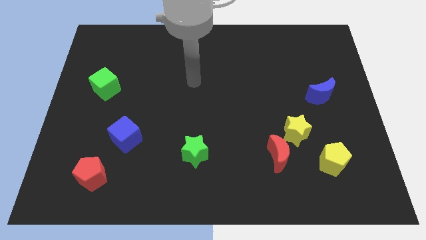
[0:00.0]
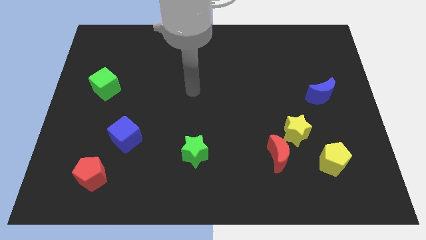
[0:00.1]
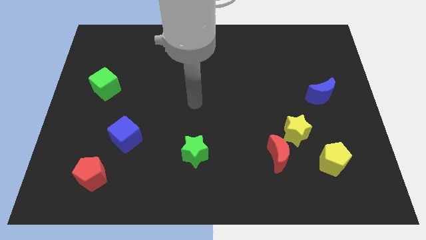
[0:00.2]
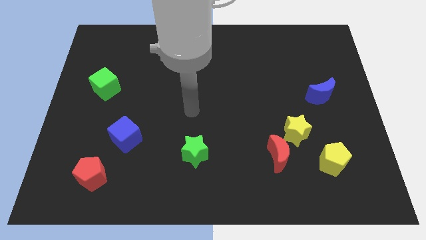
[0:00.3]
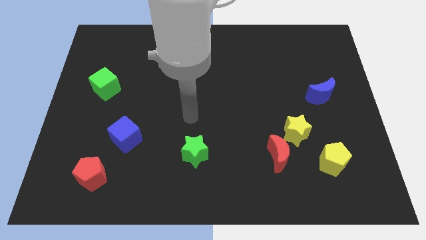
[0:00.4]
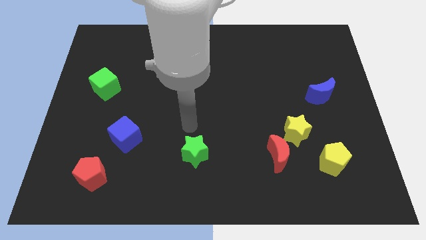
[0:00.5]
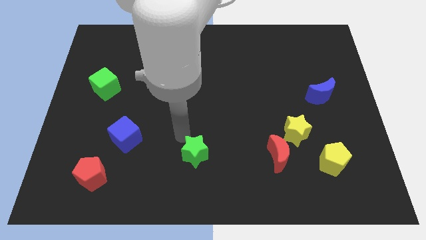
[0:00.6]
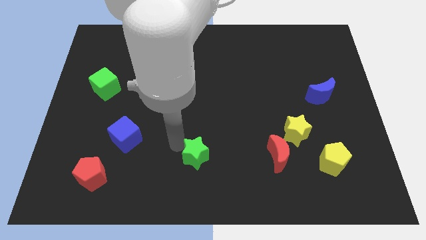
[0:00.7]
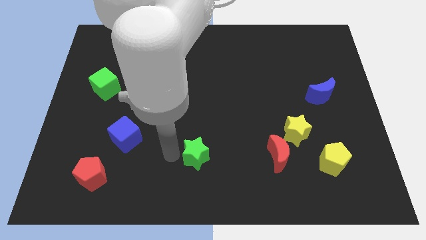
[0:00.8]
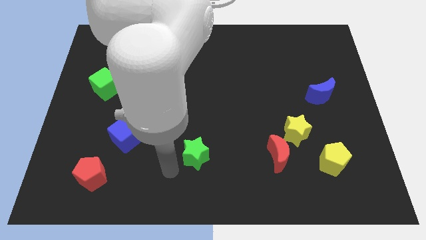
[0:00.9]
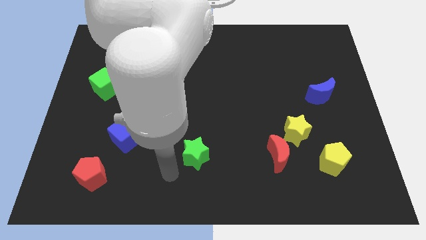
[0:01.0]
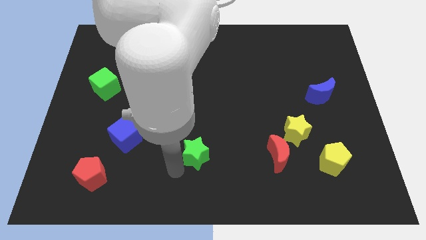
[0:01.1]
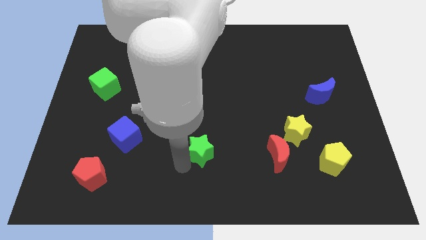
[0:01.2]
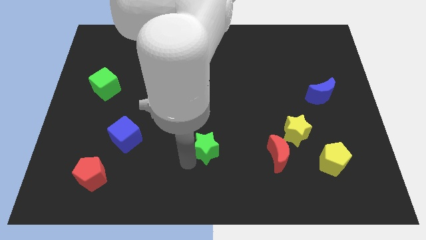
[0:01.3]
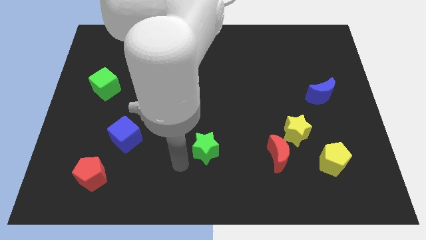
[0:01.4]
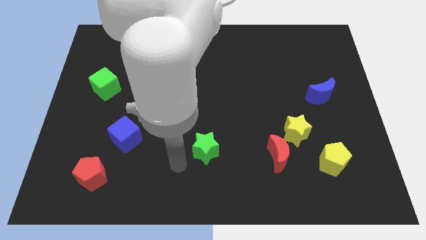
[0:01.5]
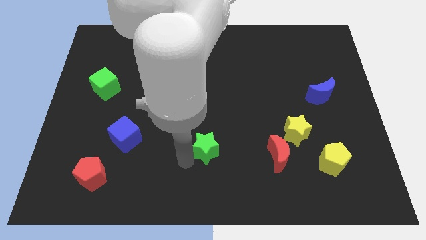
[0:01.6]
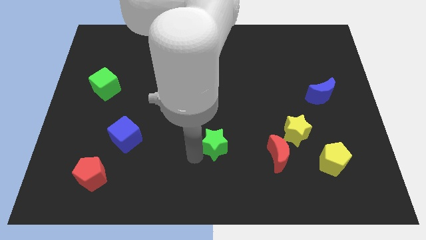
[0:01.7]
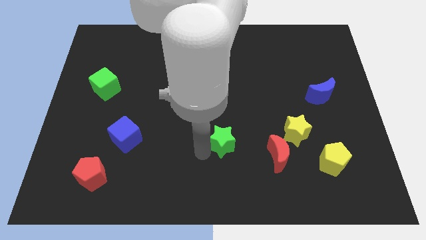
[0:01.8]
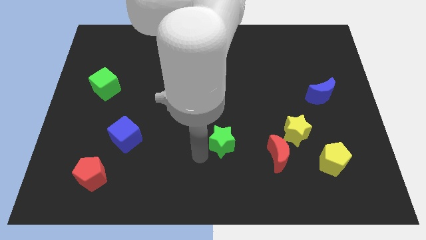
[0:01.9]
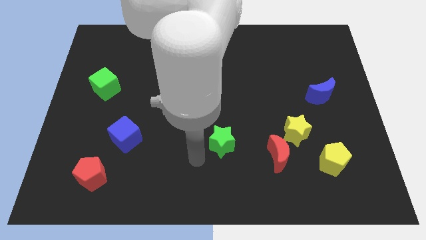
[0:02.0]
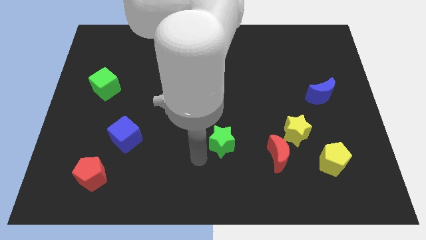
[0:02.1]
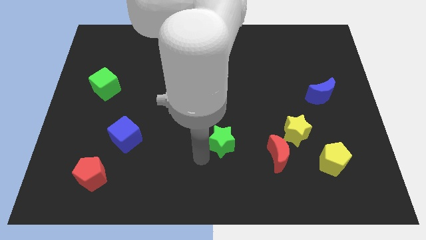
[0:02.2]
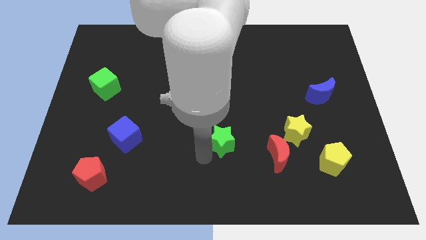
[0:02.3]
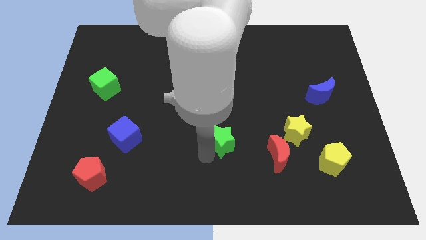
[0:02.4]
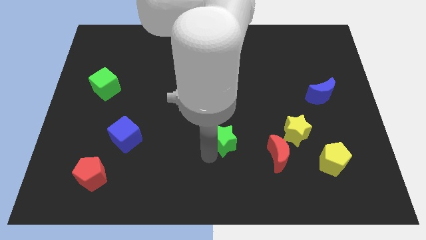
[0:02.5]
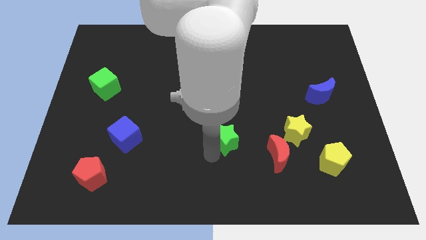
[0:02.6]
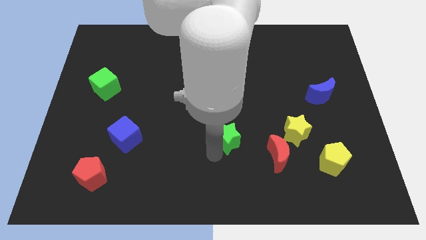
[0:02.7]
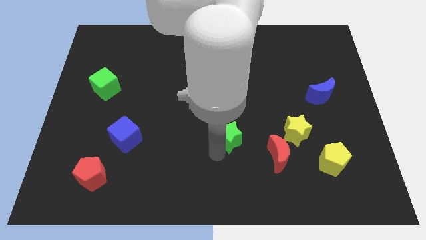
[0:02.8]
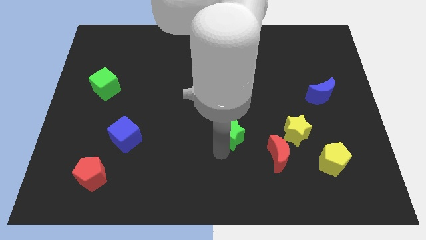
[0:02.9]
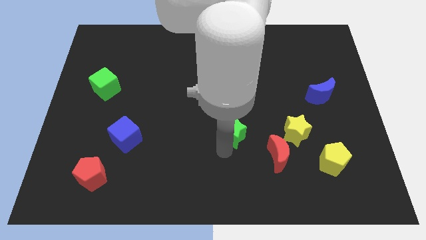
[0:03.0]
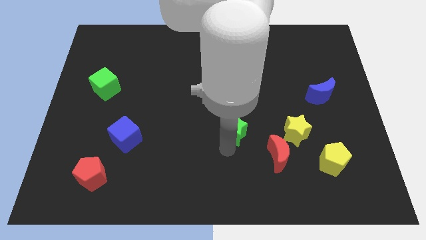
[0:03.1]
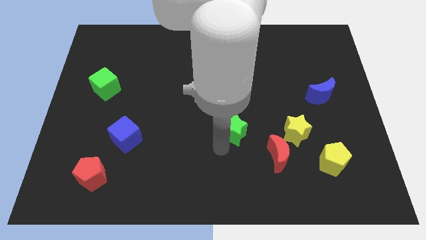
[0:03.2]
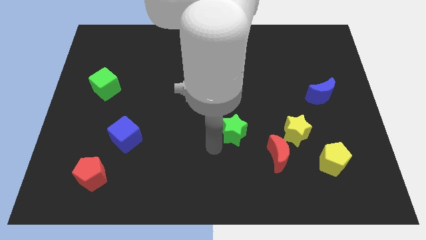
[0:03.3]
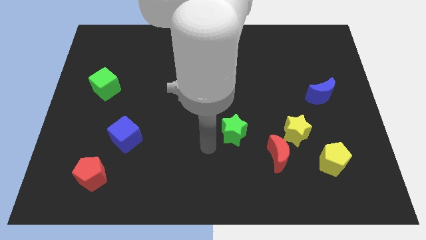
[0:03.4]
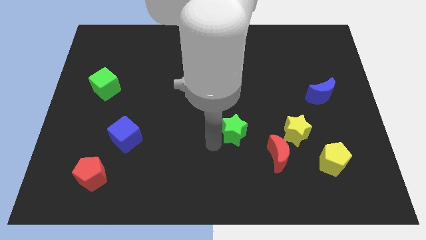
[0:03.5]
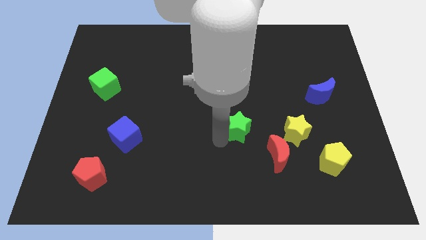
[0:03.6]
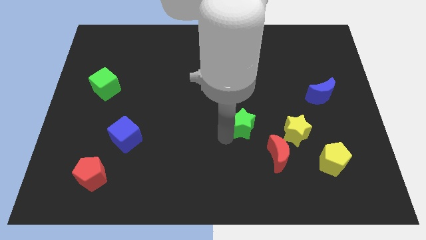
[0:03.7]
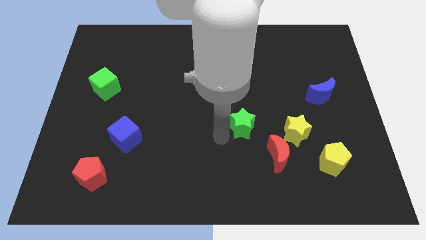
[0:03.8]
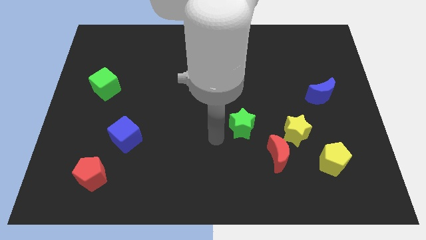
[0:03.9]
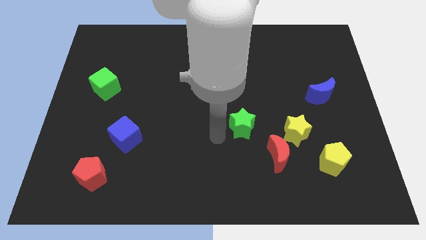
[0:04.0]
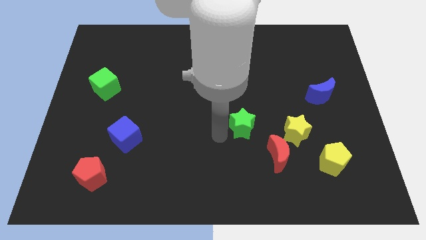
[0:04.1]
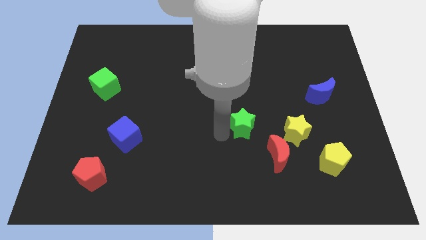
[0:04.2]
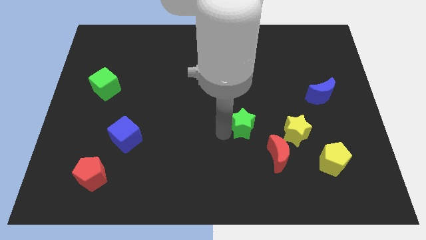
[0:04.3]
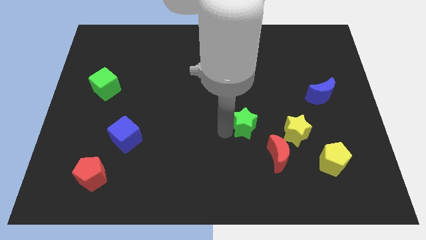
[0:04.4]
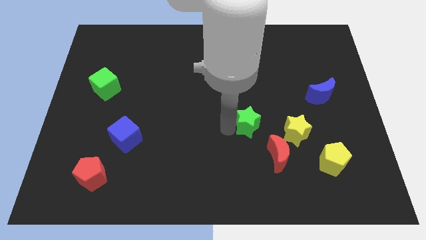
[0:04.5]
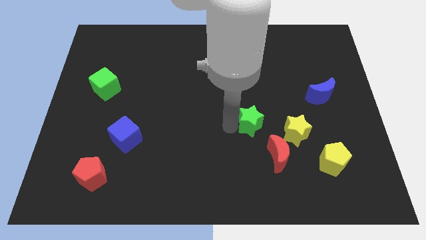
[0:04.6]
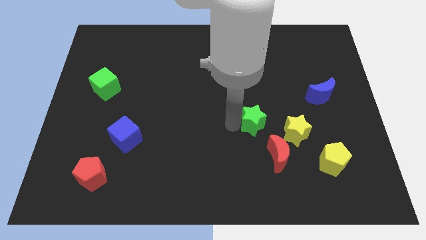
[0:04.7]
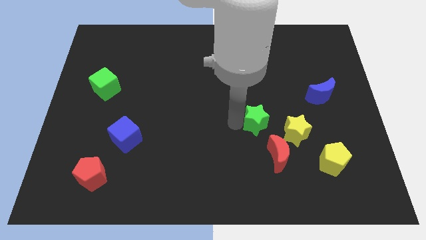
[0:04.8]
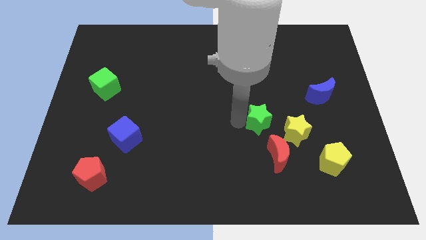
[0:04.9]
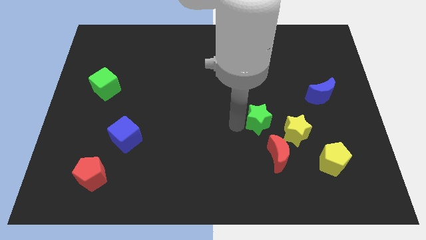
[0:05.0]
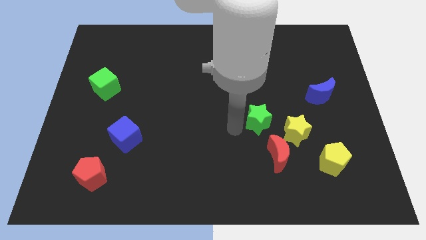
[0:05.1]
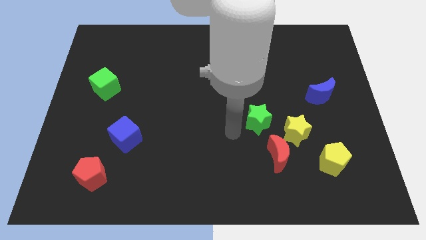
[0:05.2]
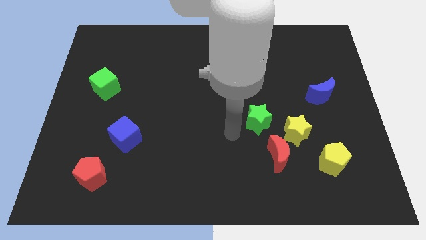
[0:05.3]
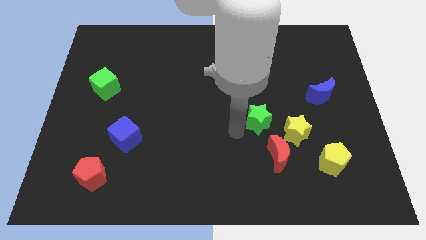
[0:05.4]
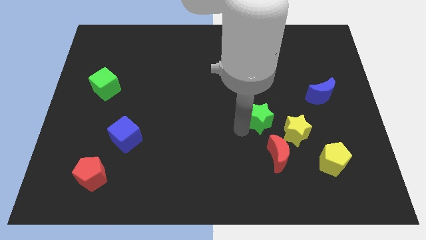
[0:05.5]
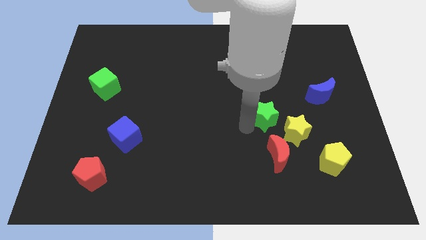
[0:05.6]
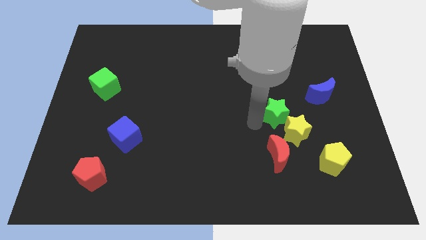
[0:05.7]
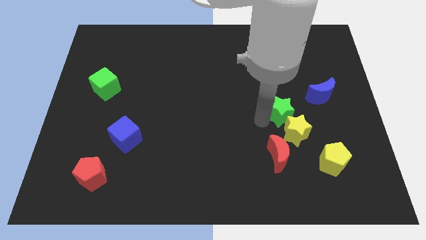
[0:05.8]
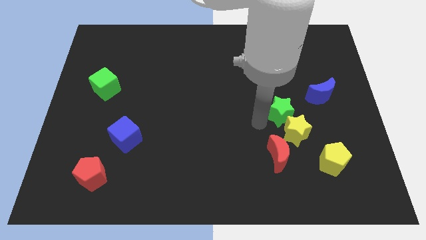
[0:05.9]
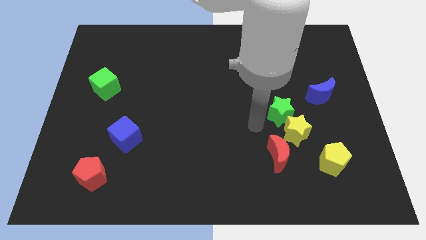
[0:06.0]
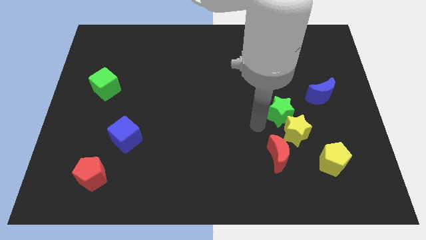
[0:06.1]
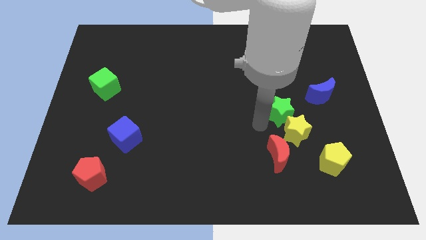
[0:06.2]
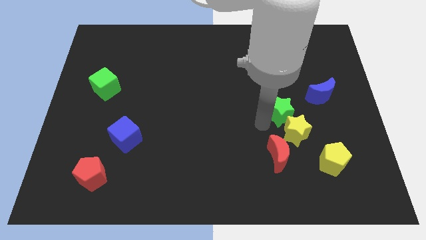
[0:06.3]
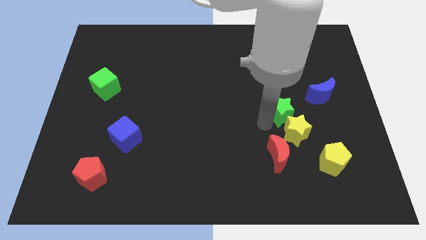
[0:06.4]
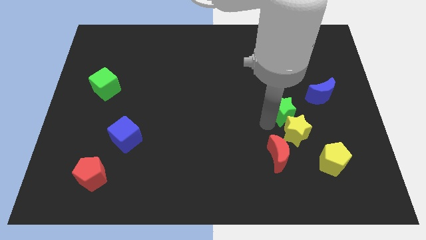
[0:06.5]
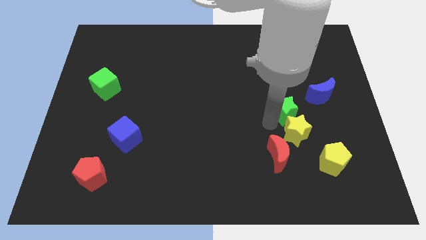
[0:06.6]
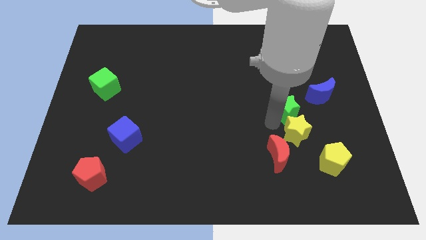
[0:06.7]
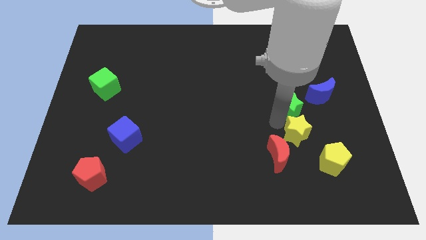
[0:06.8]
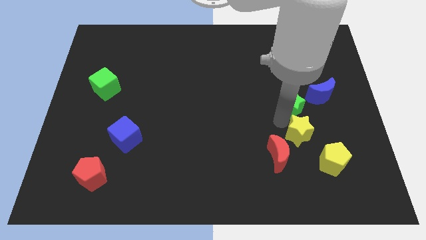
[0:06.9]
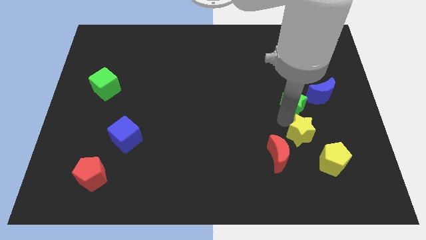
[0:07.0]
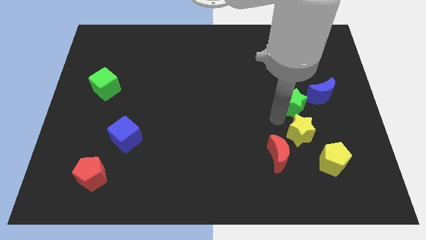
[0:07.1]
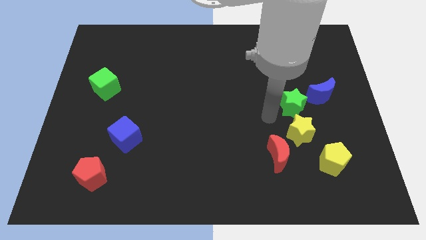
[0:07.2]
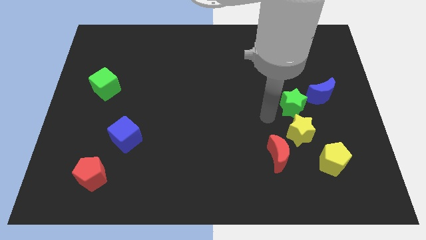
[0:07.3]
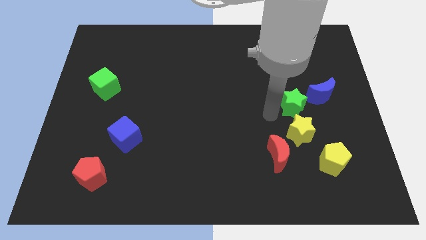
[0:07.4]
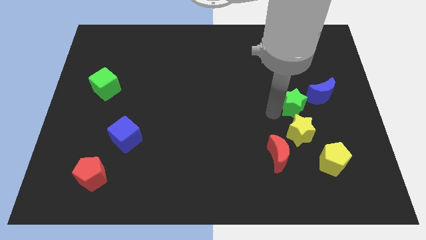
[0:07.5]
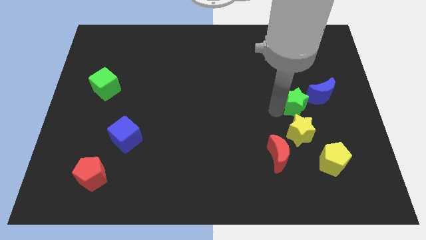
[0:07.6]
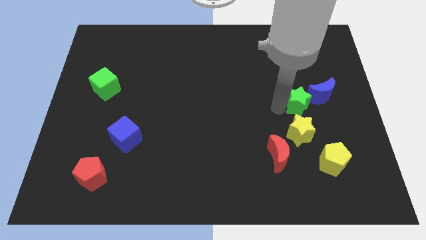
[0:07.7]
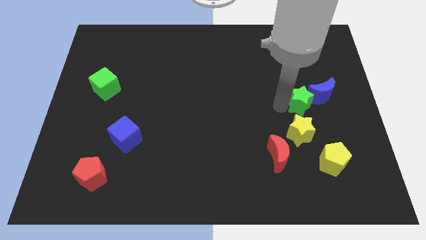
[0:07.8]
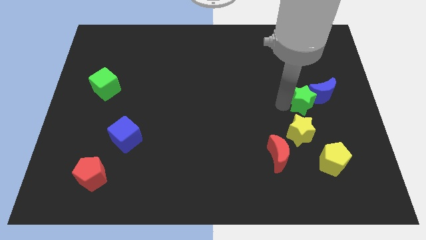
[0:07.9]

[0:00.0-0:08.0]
move the green star to the blue moon
